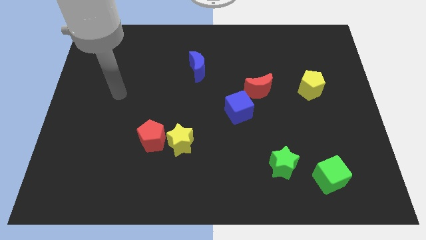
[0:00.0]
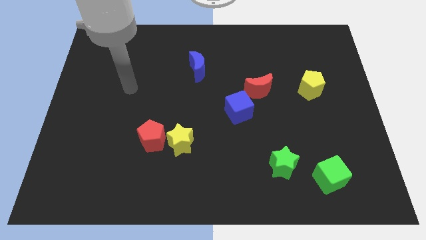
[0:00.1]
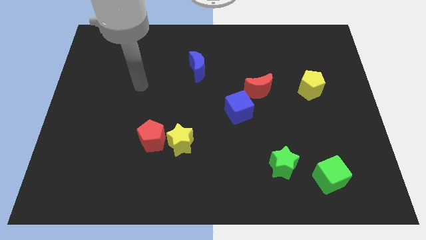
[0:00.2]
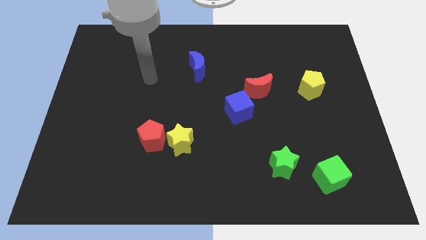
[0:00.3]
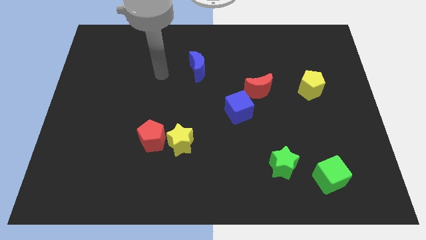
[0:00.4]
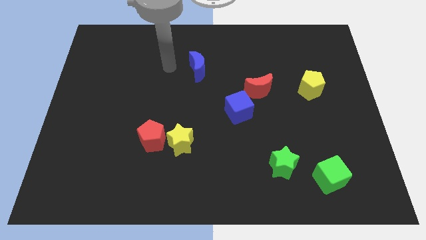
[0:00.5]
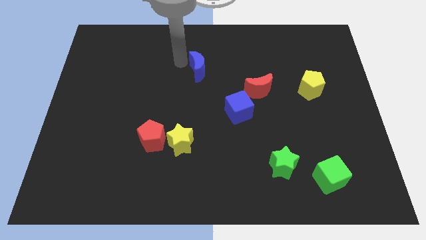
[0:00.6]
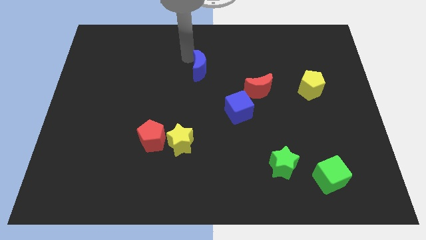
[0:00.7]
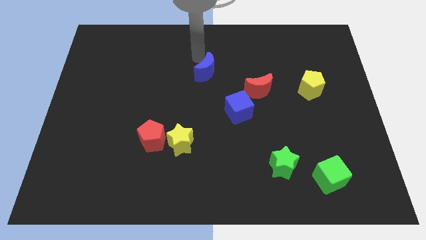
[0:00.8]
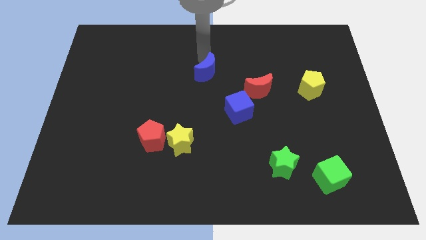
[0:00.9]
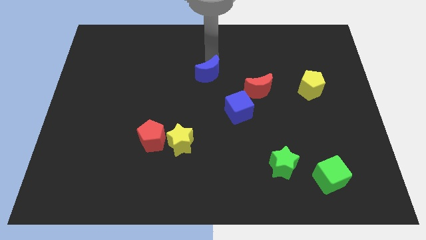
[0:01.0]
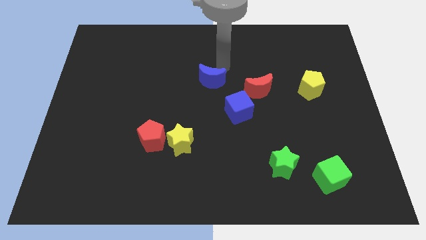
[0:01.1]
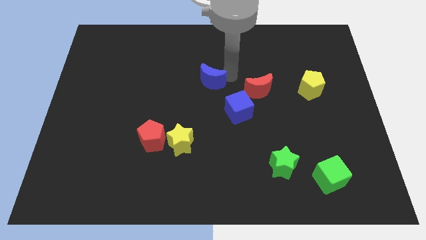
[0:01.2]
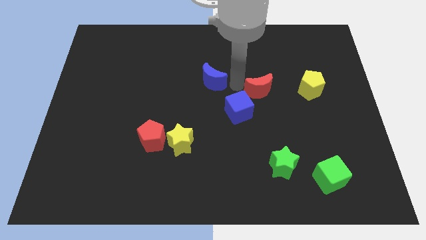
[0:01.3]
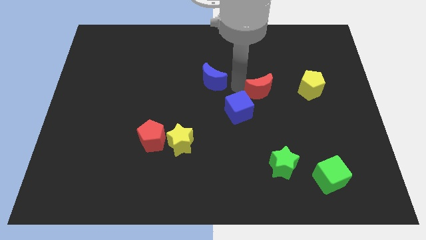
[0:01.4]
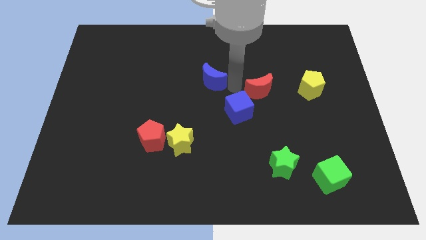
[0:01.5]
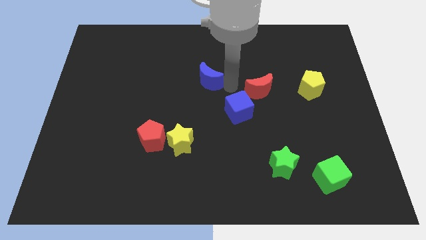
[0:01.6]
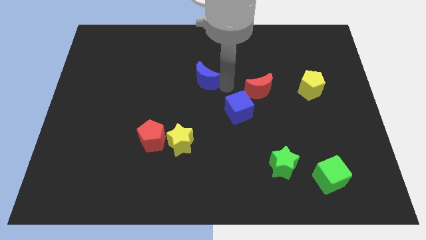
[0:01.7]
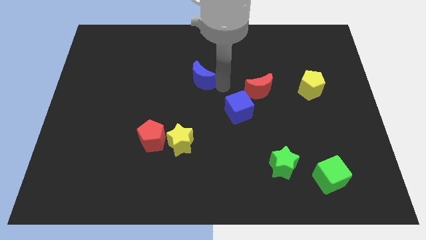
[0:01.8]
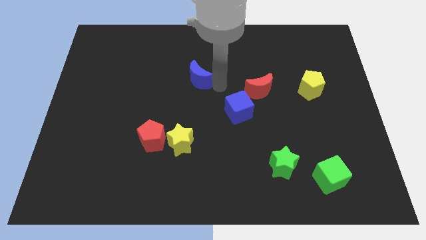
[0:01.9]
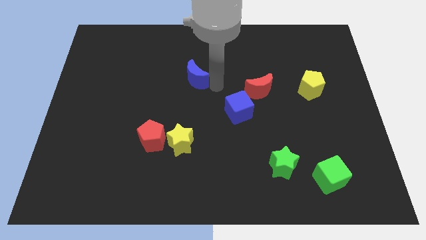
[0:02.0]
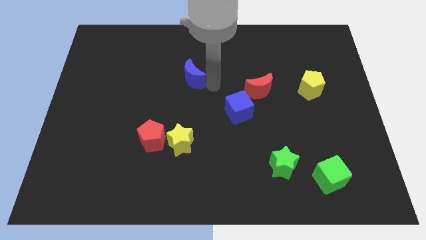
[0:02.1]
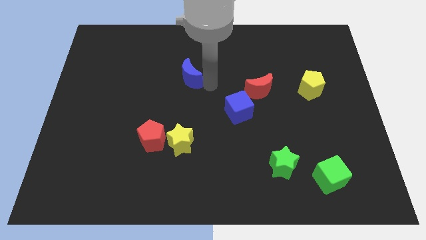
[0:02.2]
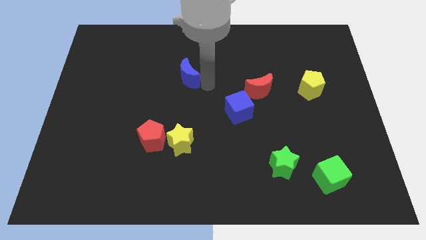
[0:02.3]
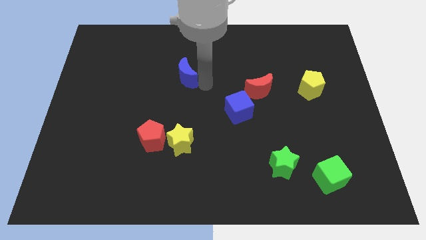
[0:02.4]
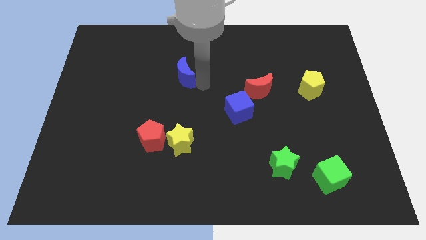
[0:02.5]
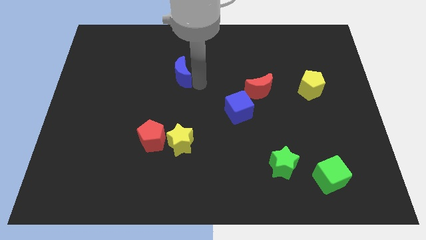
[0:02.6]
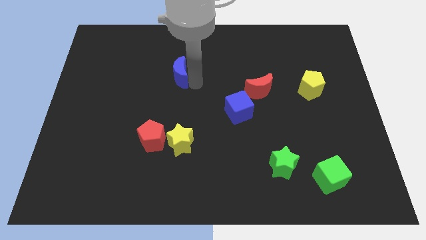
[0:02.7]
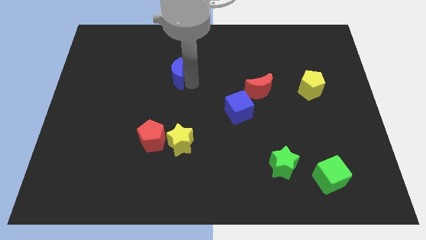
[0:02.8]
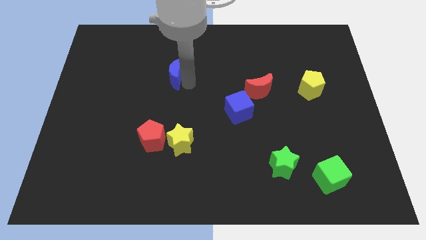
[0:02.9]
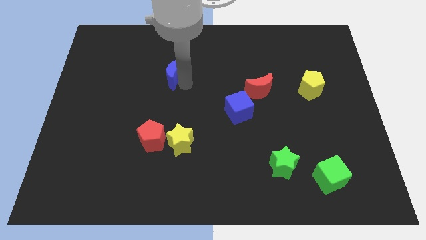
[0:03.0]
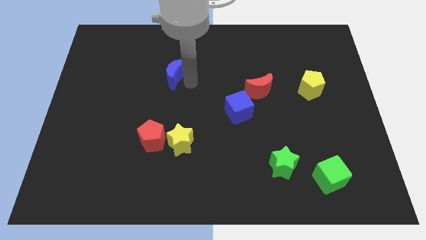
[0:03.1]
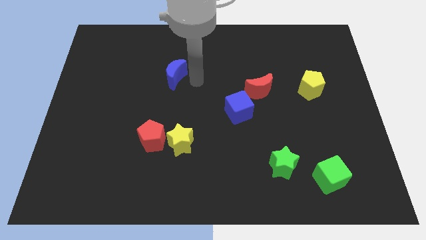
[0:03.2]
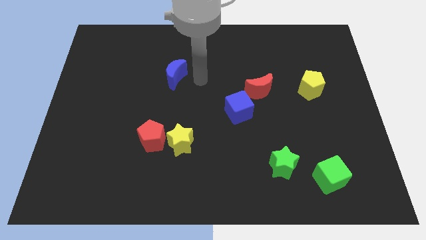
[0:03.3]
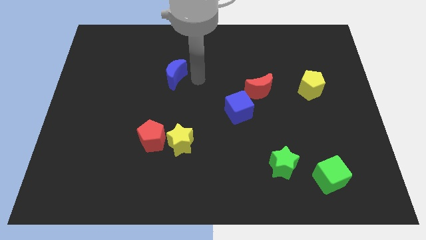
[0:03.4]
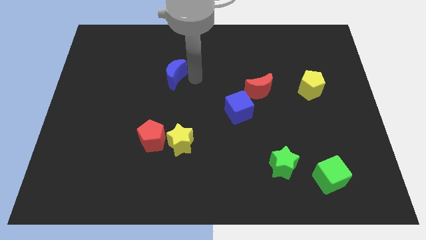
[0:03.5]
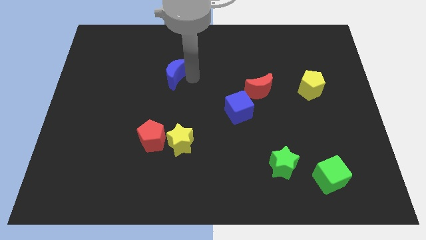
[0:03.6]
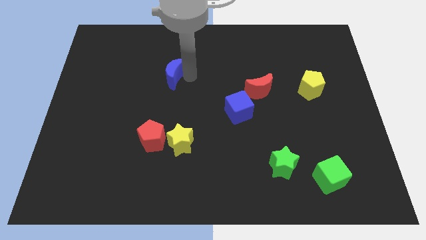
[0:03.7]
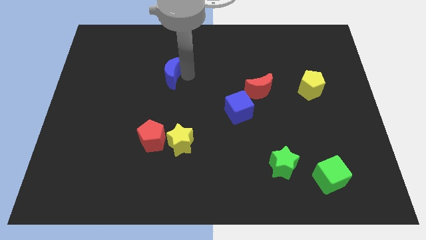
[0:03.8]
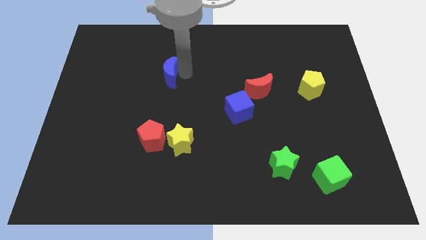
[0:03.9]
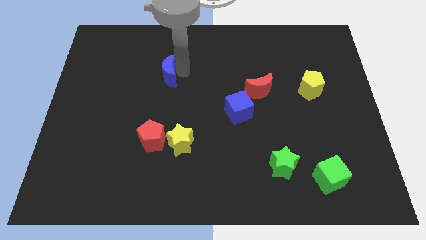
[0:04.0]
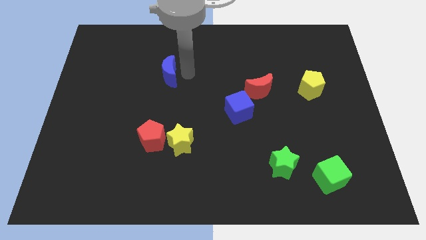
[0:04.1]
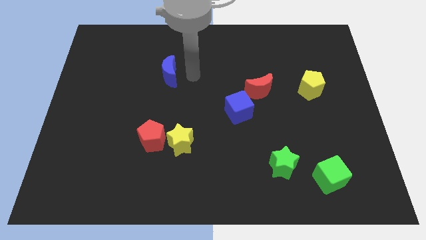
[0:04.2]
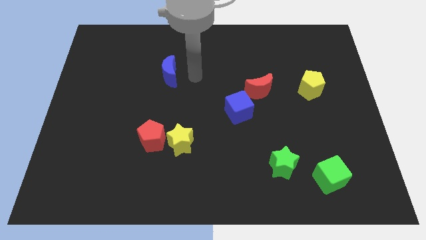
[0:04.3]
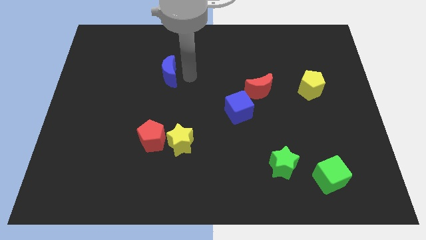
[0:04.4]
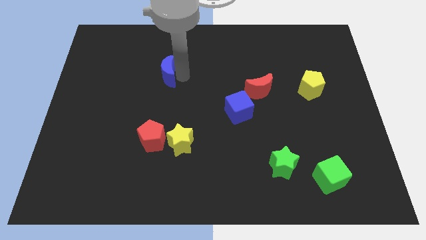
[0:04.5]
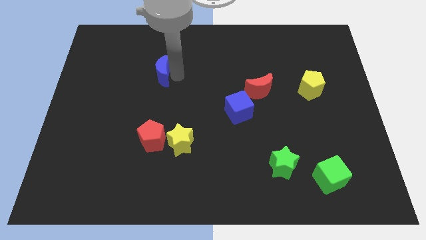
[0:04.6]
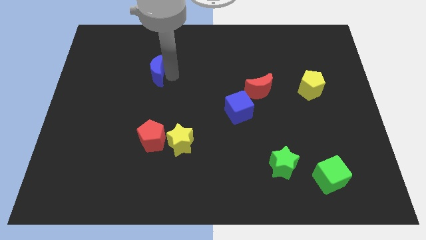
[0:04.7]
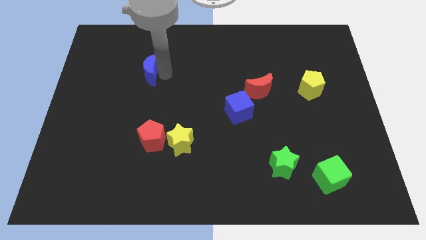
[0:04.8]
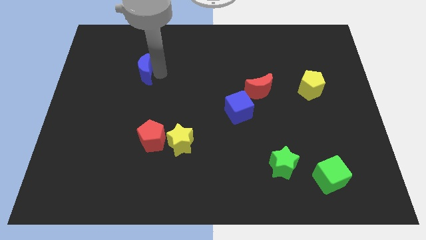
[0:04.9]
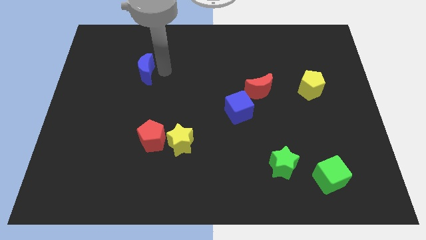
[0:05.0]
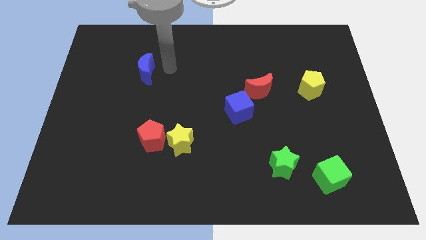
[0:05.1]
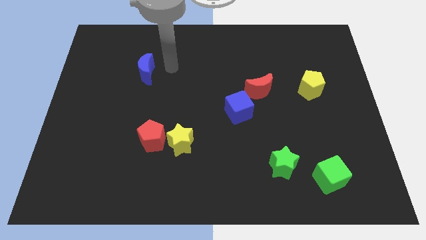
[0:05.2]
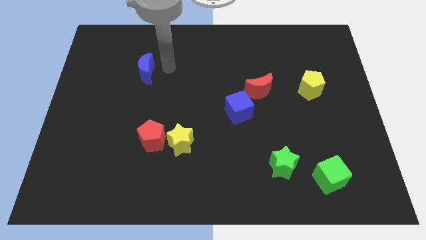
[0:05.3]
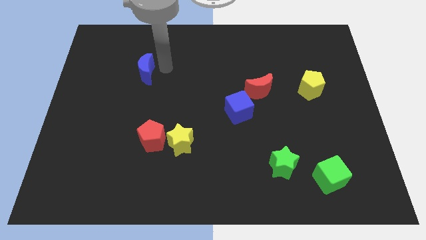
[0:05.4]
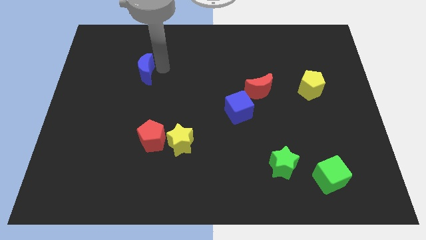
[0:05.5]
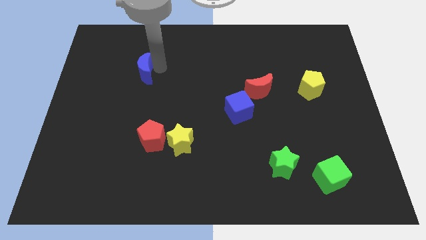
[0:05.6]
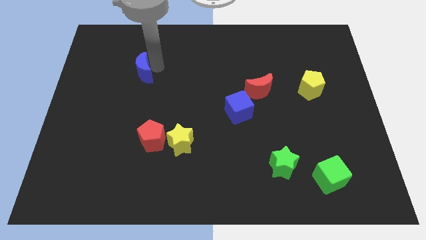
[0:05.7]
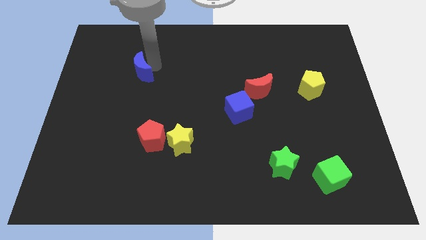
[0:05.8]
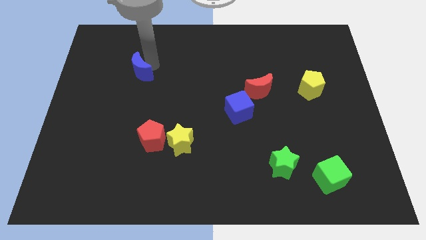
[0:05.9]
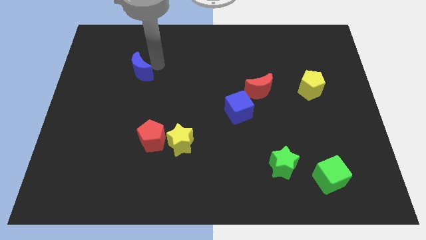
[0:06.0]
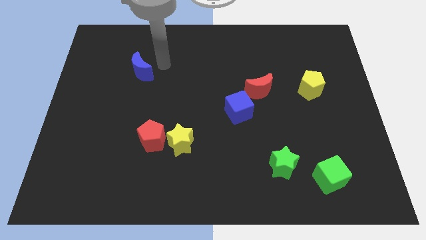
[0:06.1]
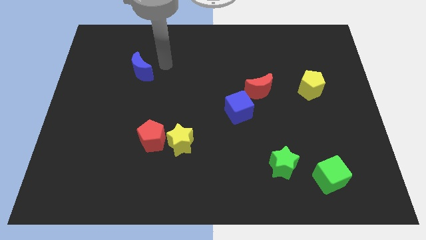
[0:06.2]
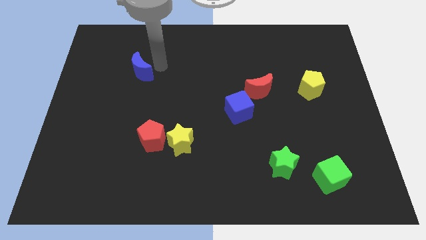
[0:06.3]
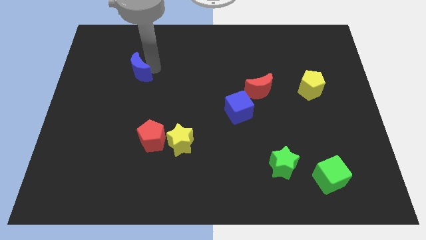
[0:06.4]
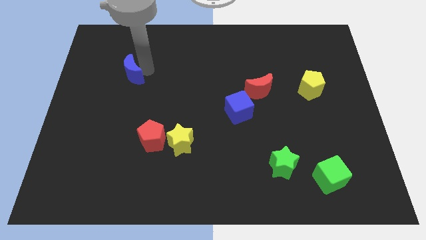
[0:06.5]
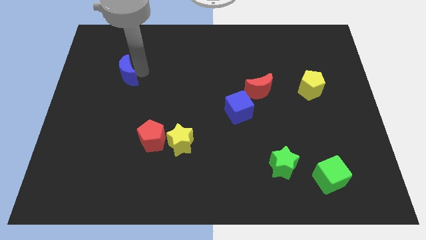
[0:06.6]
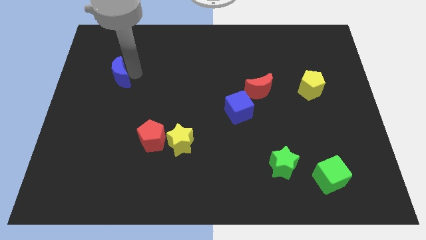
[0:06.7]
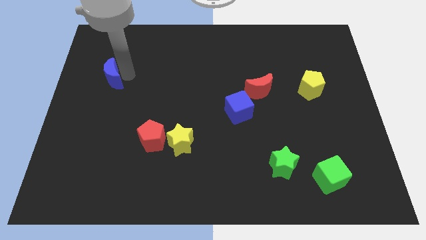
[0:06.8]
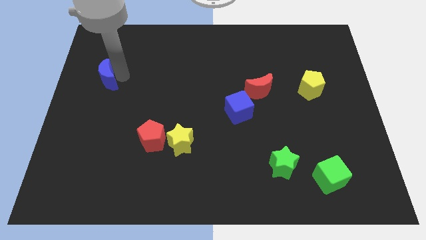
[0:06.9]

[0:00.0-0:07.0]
move the blue moon to the left side of the board
